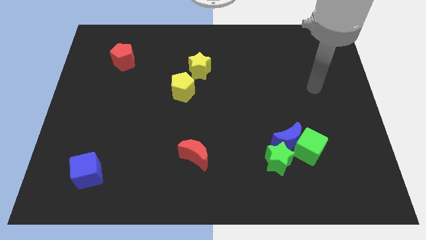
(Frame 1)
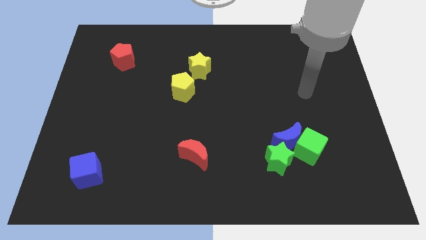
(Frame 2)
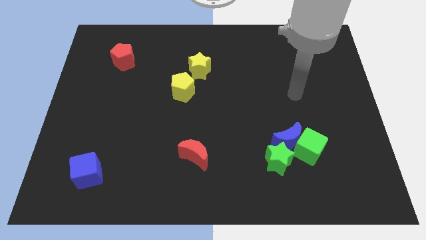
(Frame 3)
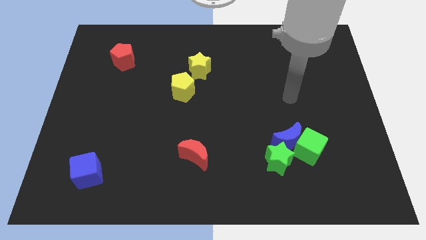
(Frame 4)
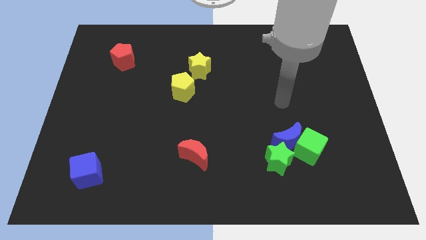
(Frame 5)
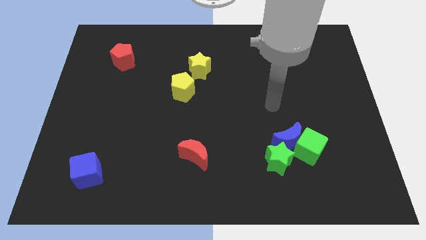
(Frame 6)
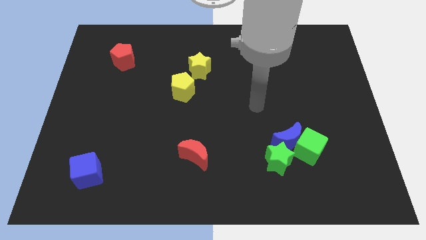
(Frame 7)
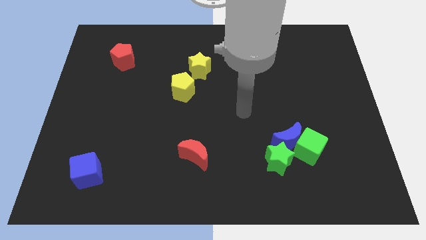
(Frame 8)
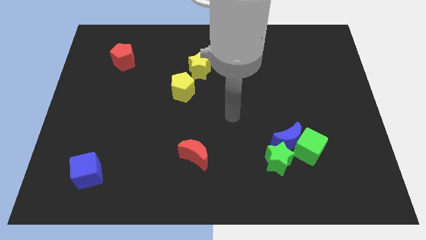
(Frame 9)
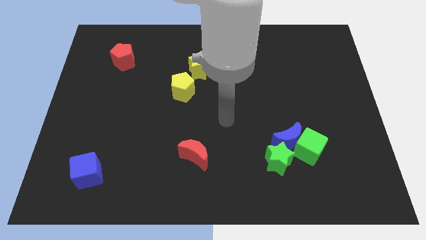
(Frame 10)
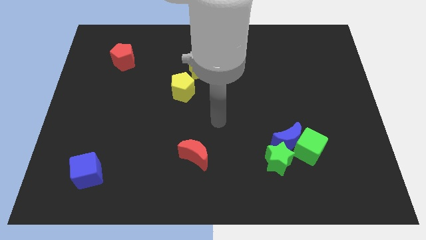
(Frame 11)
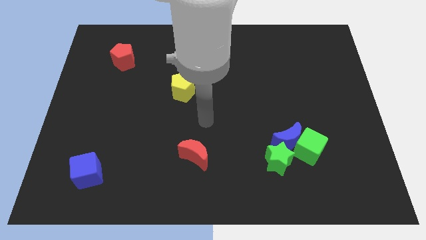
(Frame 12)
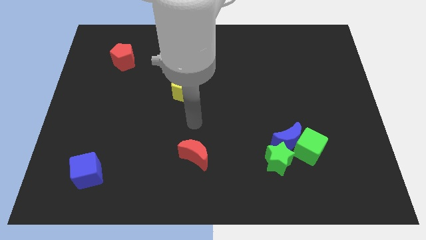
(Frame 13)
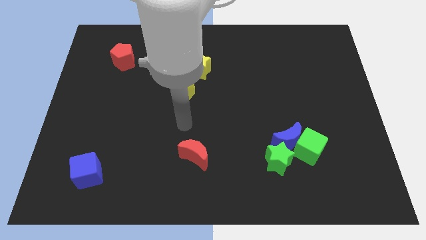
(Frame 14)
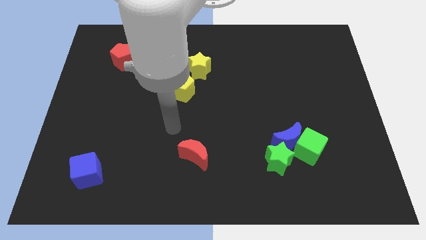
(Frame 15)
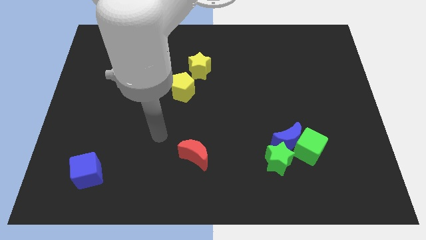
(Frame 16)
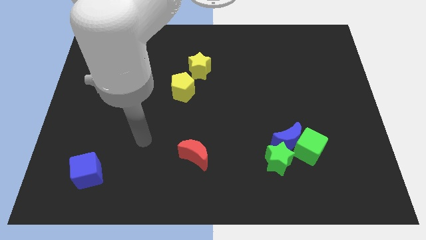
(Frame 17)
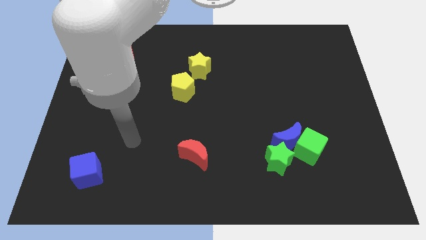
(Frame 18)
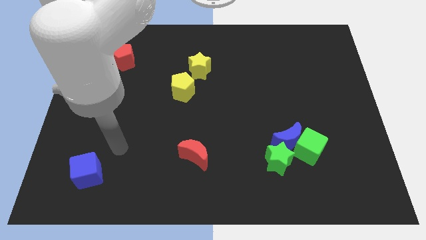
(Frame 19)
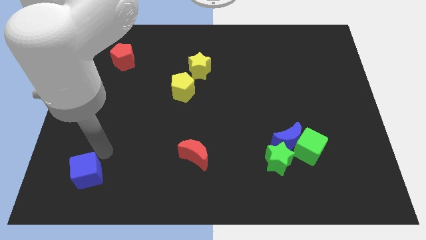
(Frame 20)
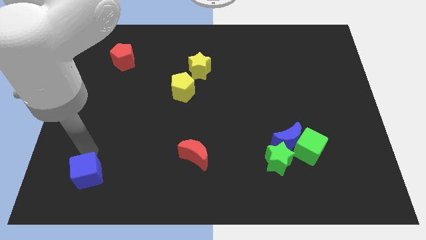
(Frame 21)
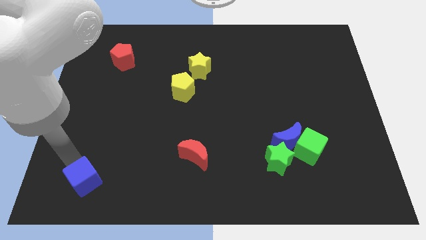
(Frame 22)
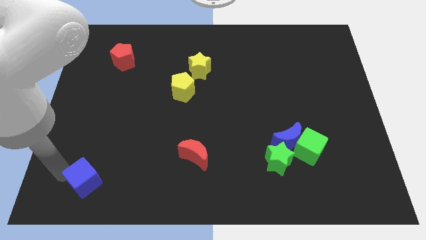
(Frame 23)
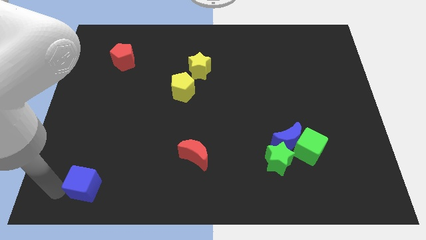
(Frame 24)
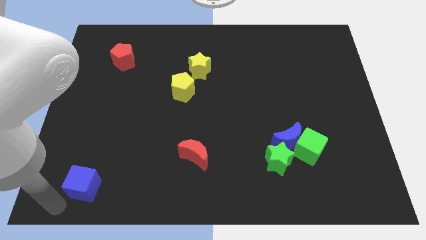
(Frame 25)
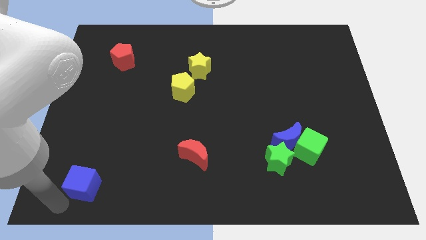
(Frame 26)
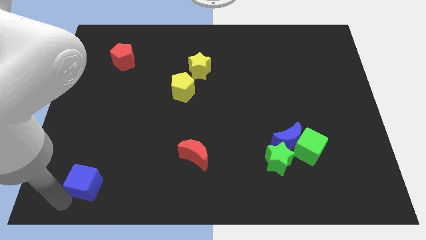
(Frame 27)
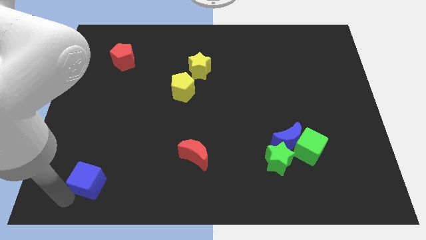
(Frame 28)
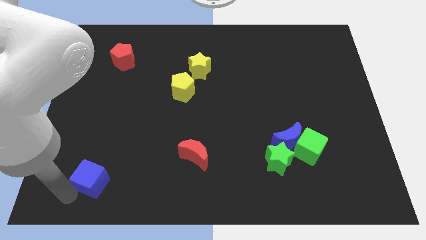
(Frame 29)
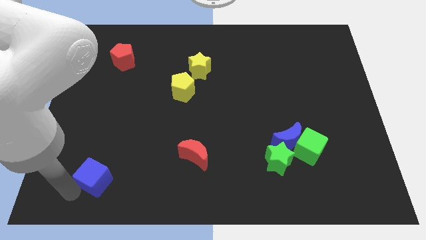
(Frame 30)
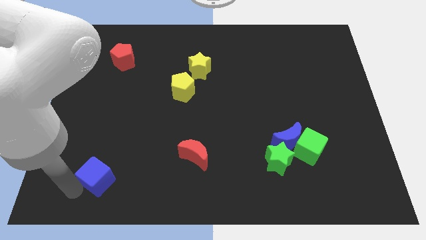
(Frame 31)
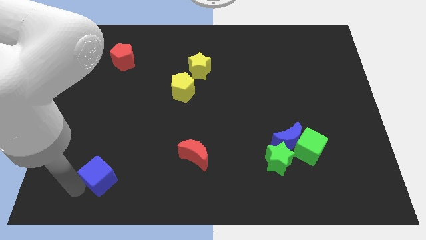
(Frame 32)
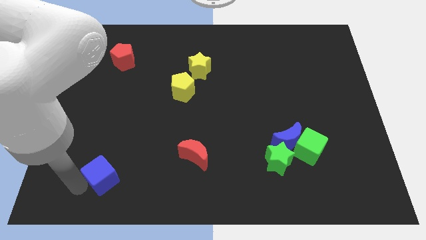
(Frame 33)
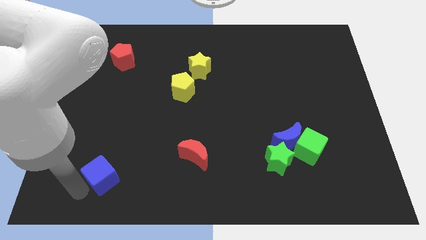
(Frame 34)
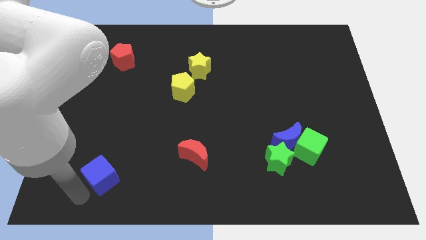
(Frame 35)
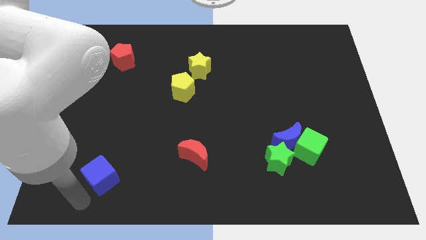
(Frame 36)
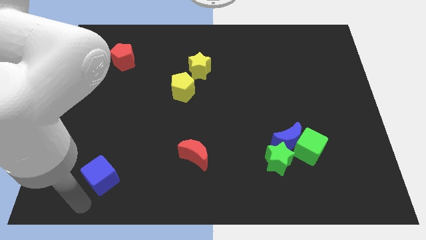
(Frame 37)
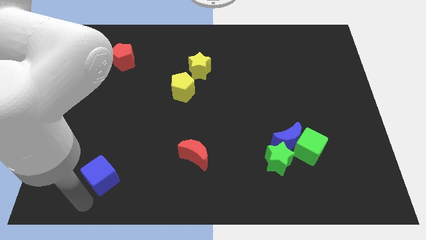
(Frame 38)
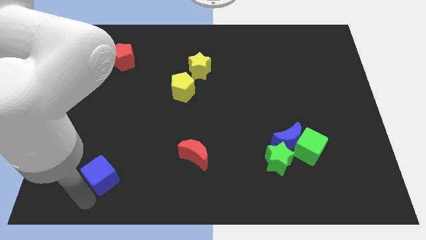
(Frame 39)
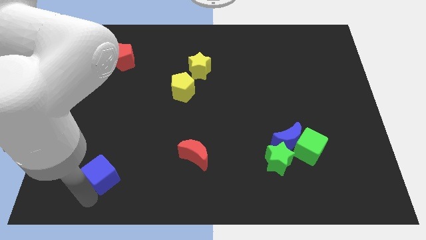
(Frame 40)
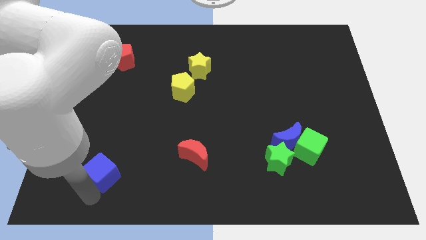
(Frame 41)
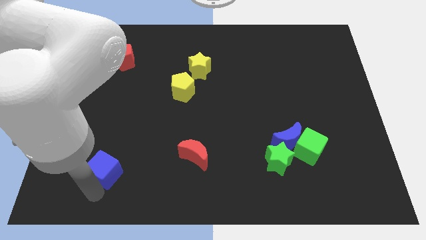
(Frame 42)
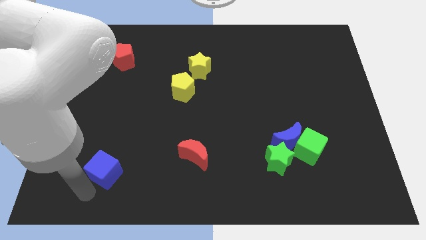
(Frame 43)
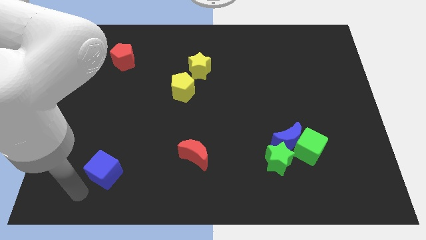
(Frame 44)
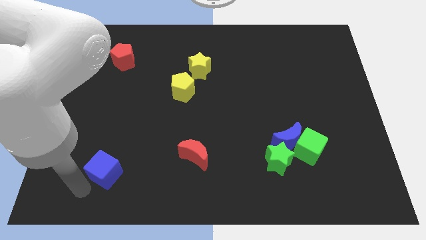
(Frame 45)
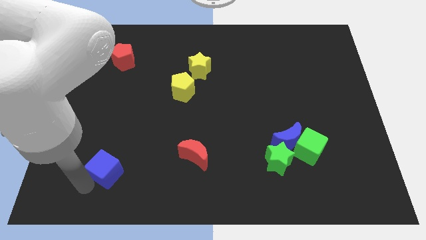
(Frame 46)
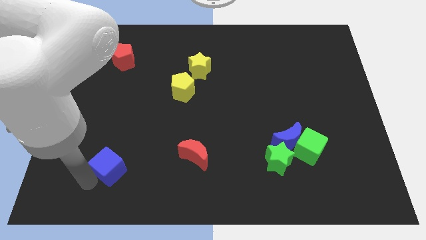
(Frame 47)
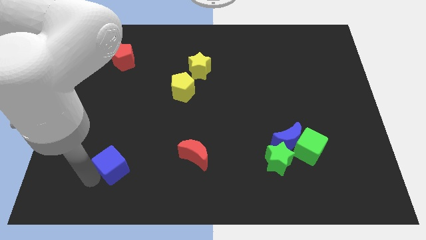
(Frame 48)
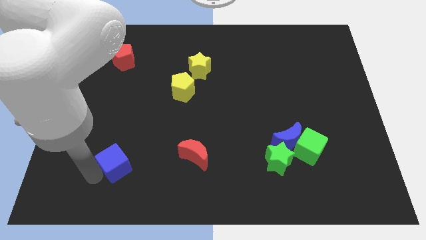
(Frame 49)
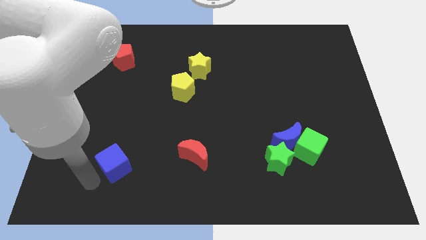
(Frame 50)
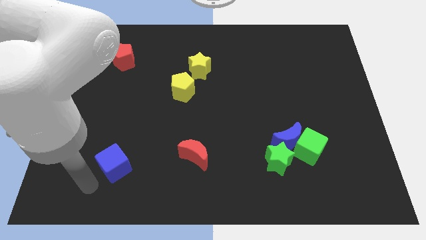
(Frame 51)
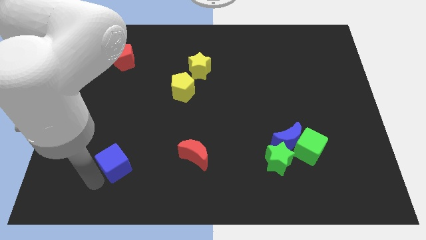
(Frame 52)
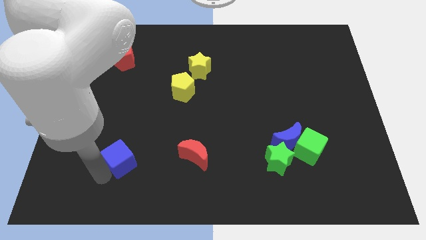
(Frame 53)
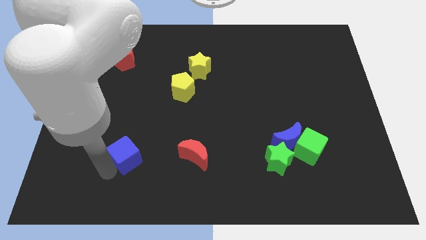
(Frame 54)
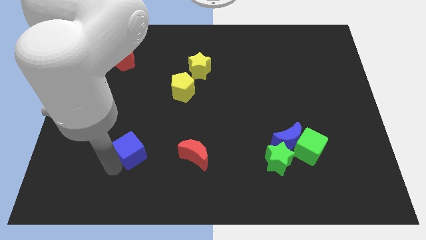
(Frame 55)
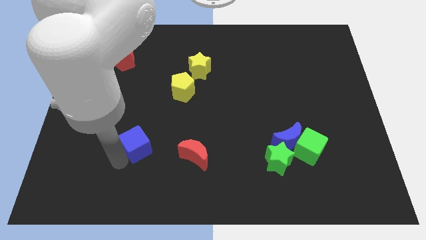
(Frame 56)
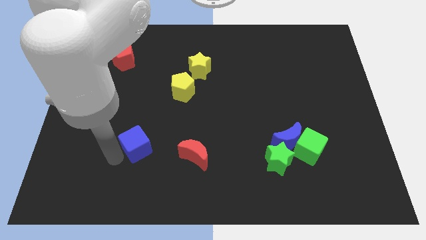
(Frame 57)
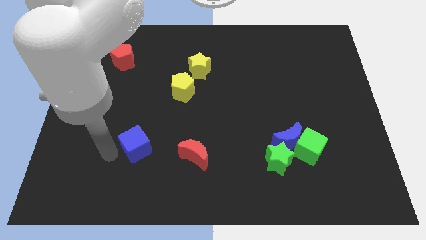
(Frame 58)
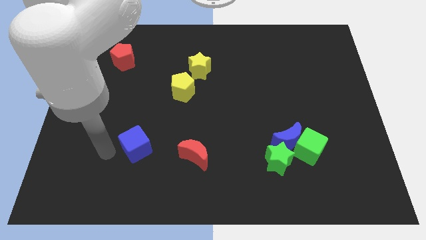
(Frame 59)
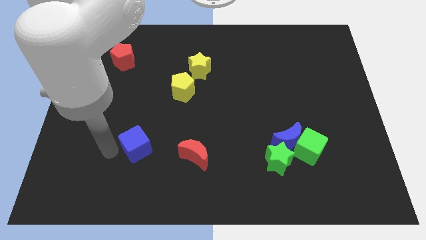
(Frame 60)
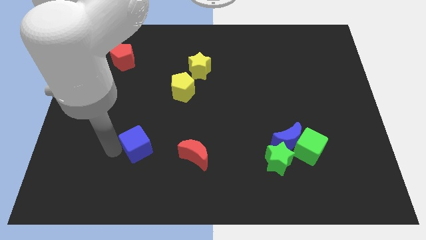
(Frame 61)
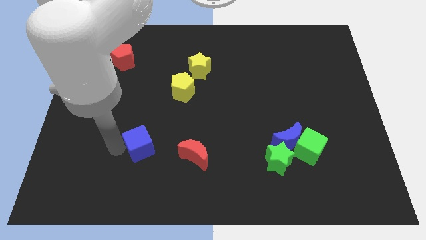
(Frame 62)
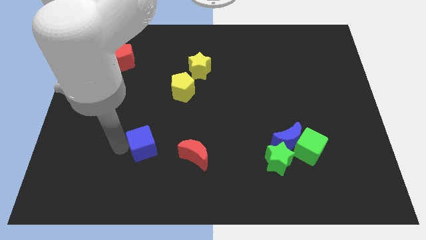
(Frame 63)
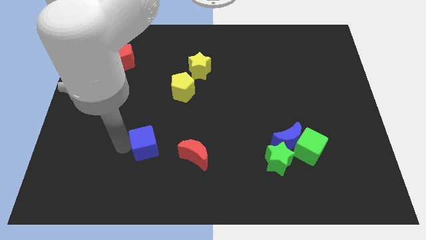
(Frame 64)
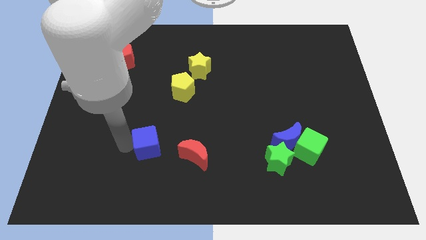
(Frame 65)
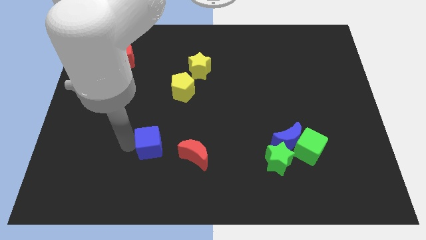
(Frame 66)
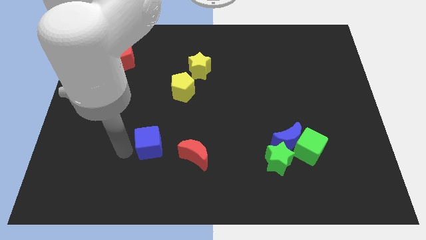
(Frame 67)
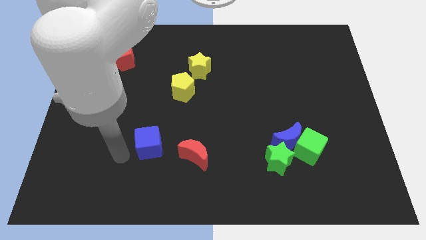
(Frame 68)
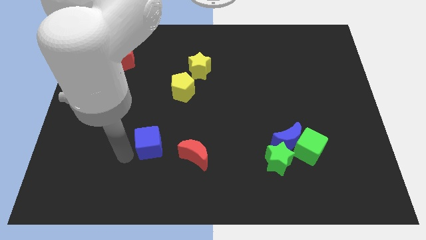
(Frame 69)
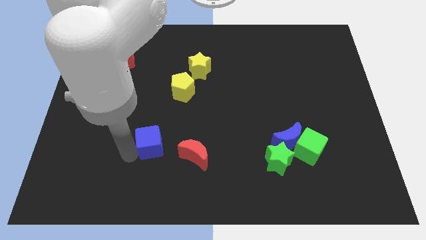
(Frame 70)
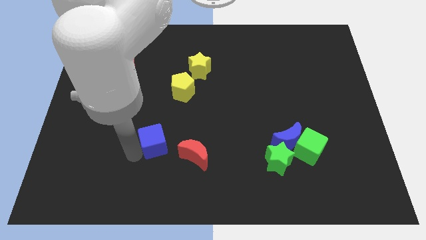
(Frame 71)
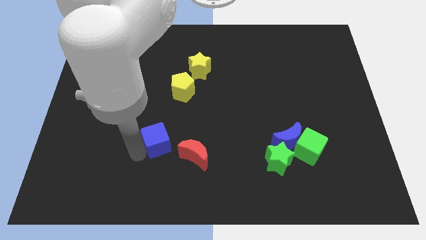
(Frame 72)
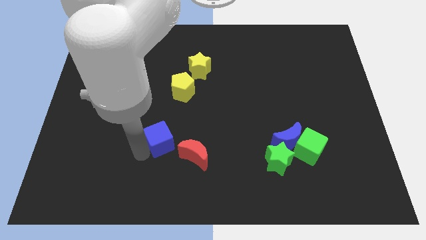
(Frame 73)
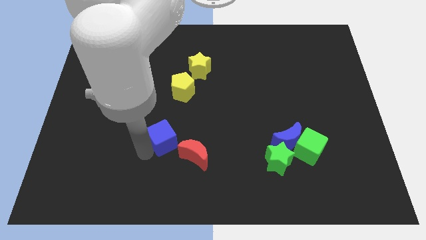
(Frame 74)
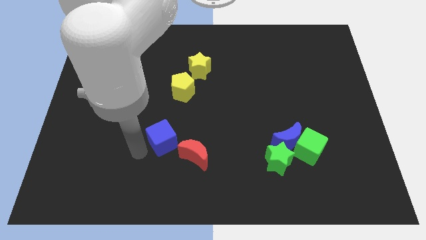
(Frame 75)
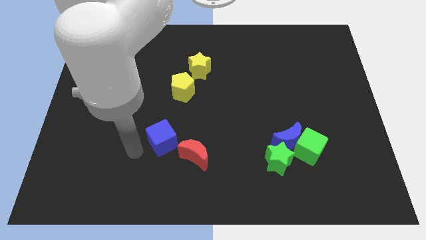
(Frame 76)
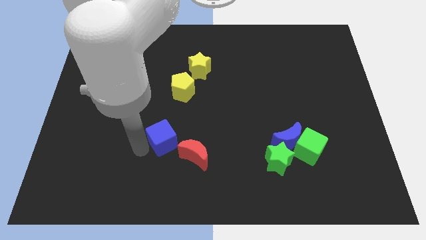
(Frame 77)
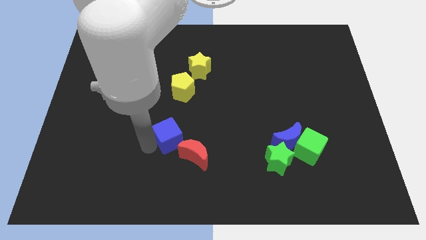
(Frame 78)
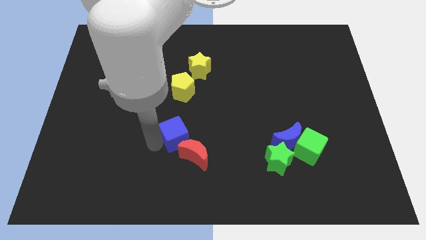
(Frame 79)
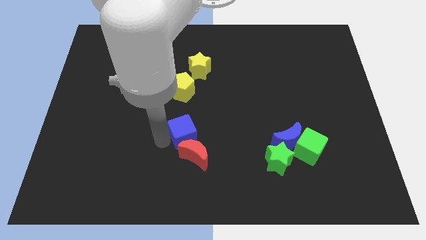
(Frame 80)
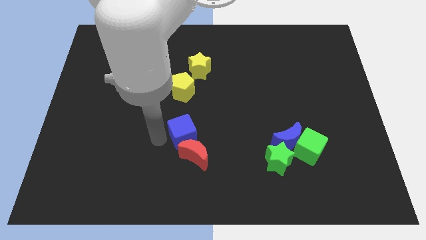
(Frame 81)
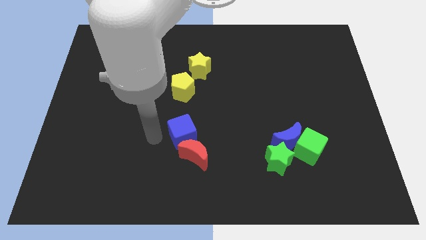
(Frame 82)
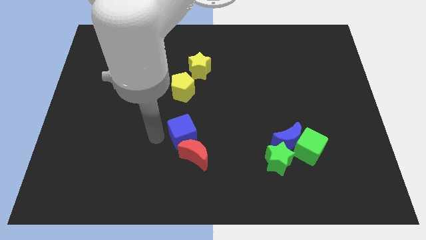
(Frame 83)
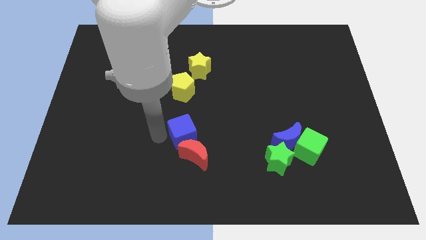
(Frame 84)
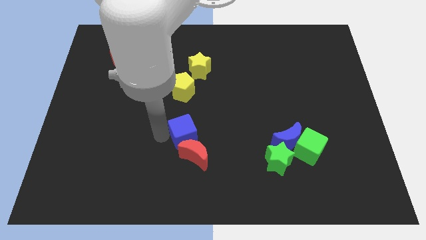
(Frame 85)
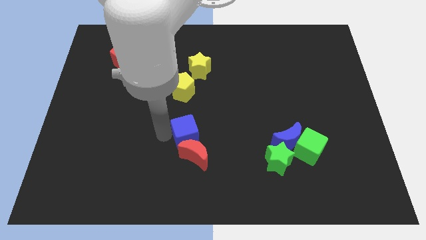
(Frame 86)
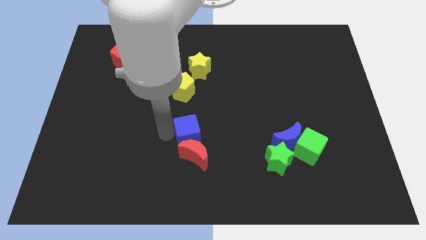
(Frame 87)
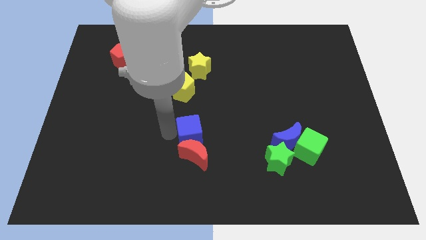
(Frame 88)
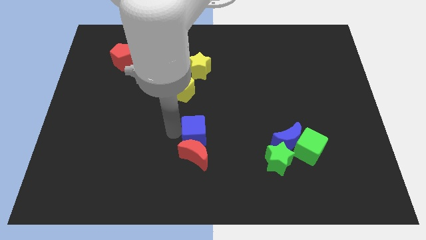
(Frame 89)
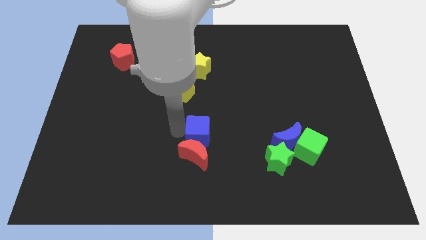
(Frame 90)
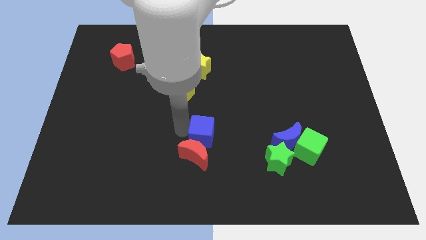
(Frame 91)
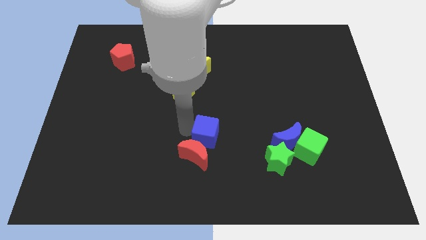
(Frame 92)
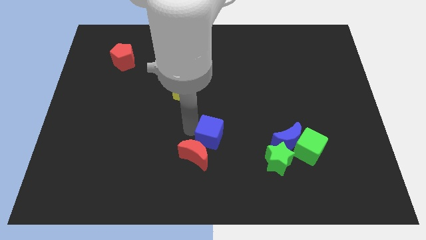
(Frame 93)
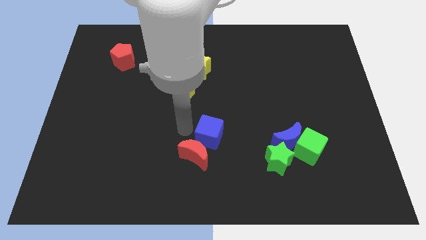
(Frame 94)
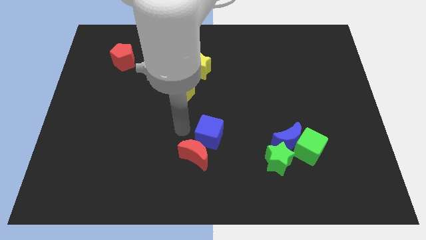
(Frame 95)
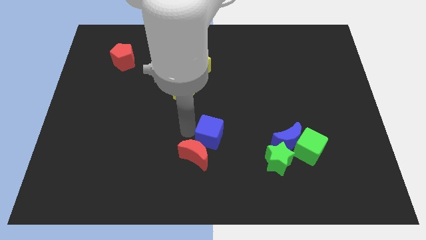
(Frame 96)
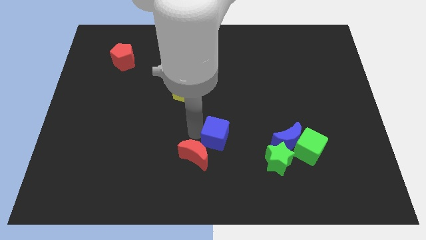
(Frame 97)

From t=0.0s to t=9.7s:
slide the blue cube just left of the blue moon
